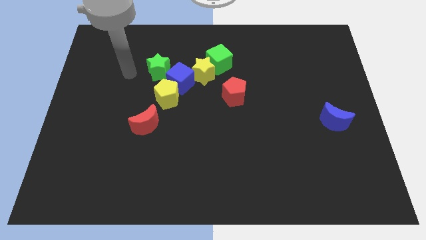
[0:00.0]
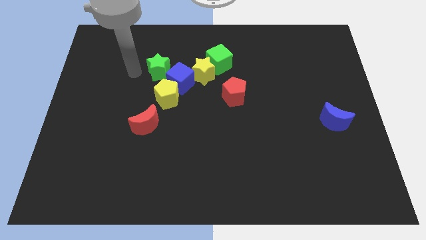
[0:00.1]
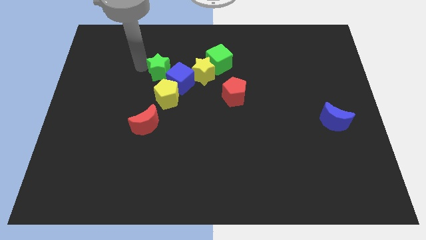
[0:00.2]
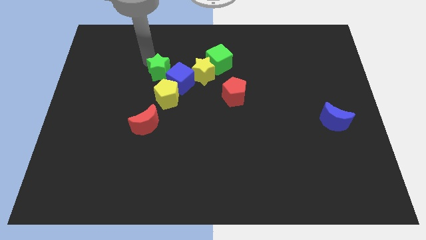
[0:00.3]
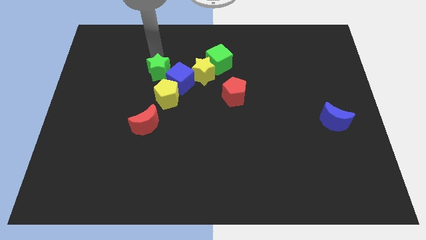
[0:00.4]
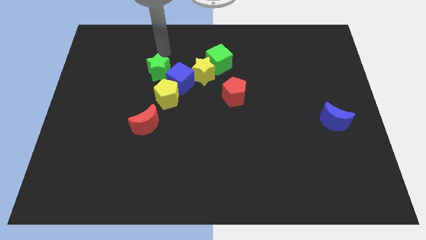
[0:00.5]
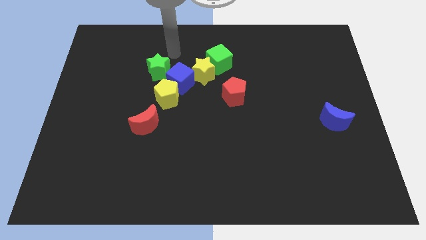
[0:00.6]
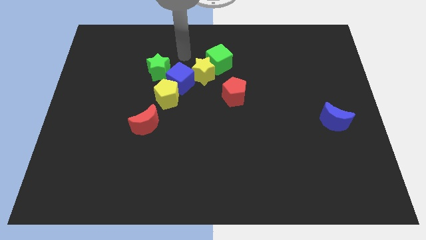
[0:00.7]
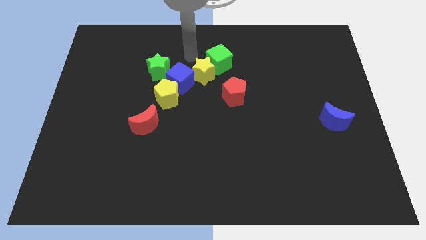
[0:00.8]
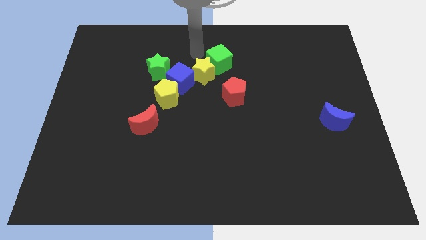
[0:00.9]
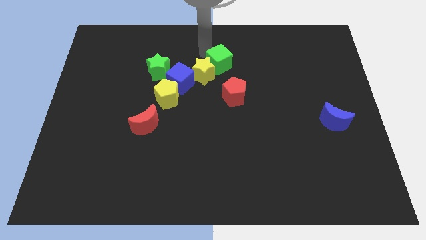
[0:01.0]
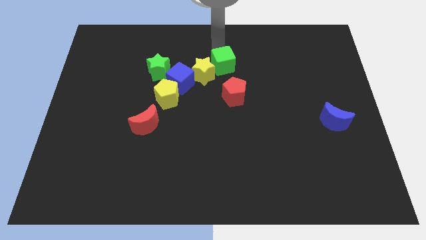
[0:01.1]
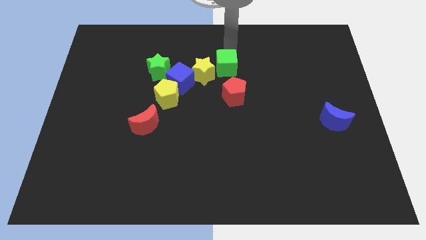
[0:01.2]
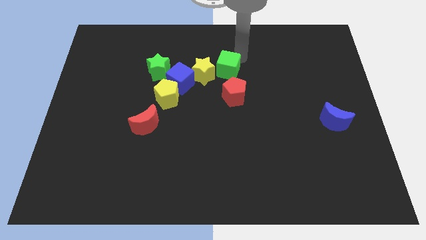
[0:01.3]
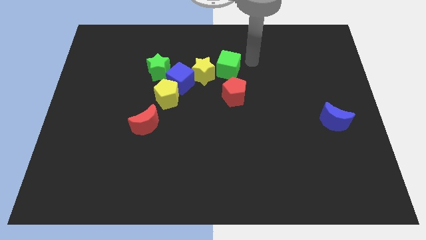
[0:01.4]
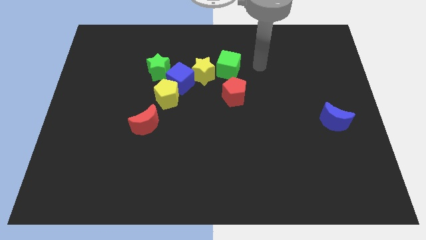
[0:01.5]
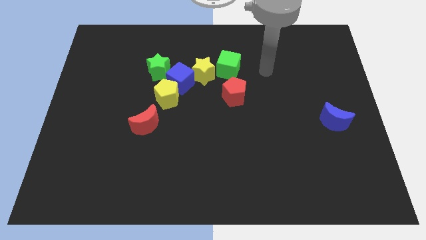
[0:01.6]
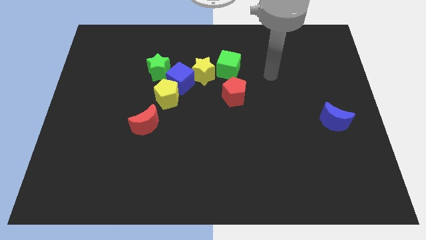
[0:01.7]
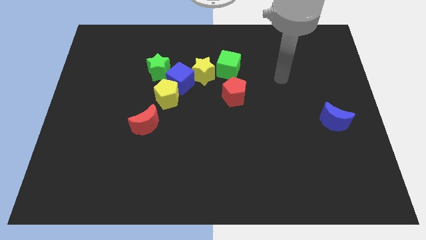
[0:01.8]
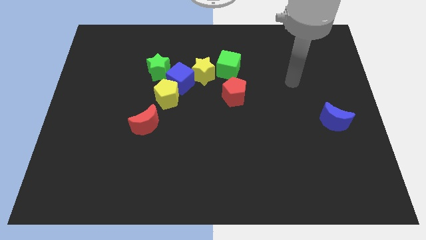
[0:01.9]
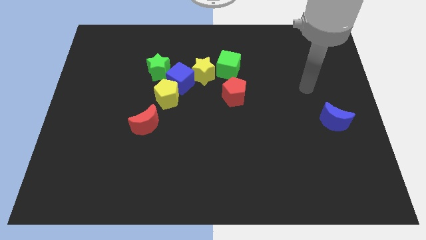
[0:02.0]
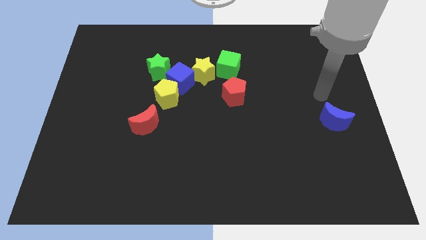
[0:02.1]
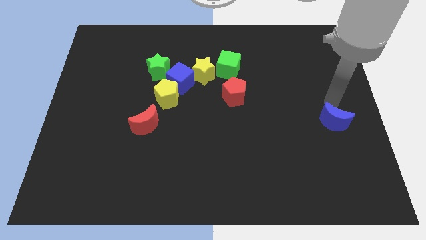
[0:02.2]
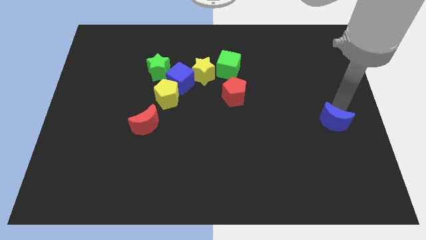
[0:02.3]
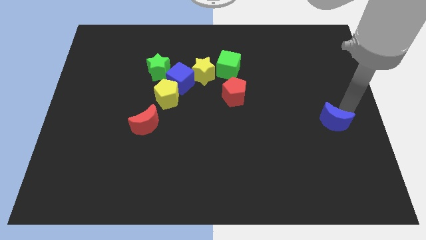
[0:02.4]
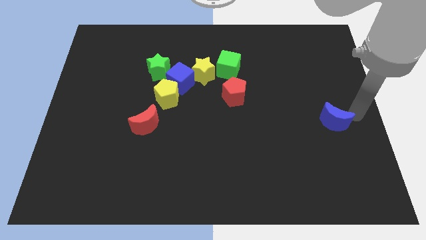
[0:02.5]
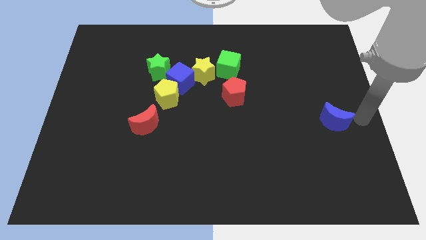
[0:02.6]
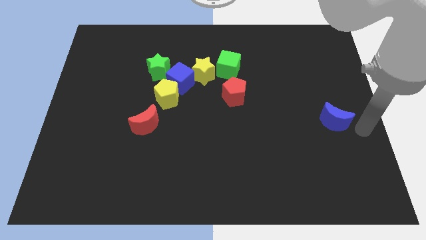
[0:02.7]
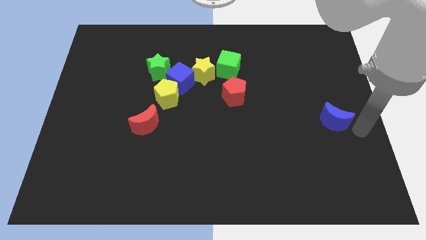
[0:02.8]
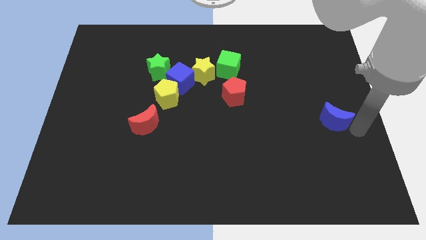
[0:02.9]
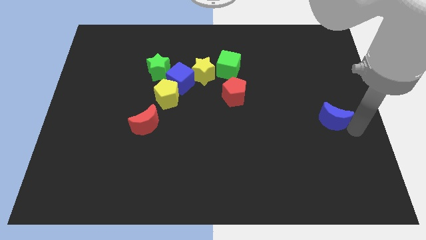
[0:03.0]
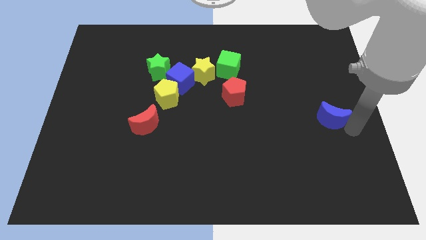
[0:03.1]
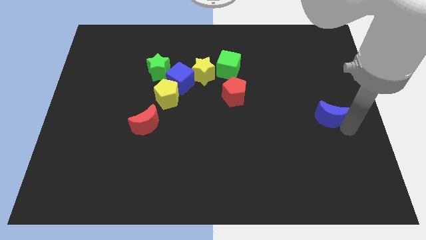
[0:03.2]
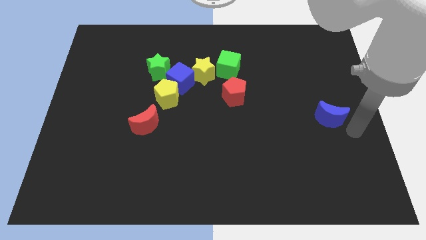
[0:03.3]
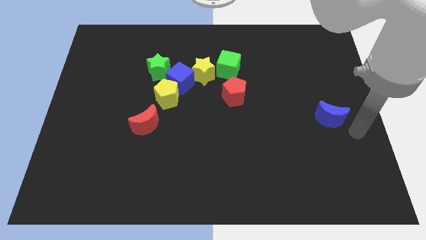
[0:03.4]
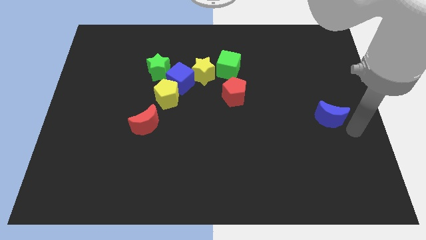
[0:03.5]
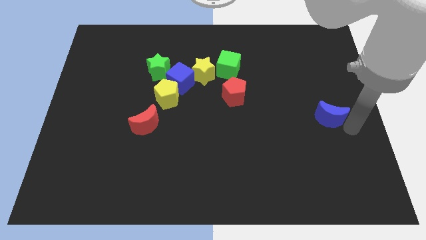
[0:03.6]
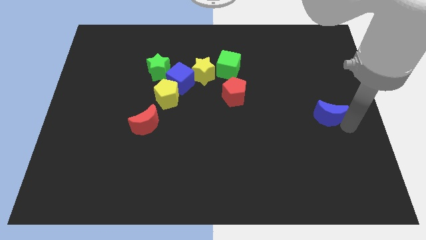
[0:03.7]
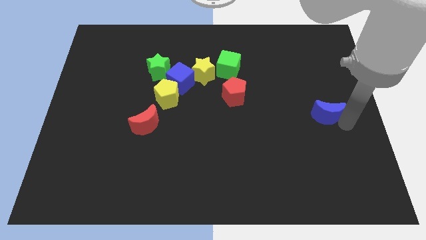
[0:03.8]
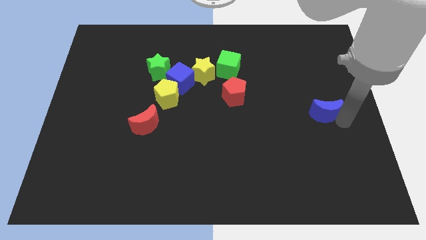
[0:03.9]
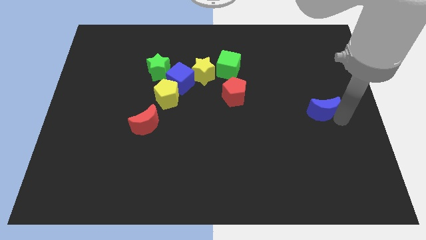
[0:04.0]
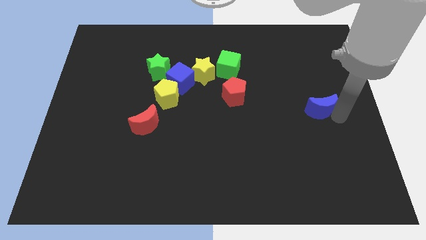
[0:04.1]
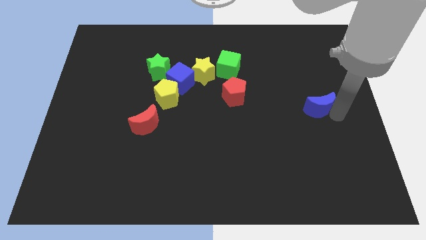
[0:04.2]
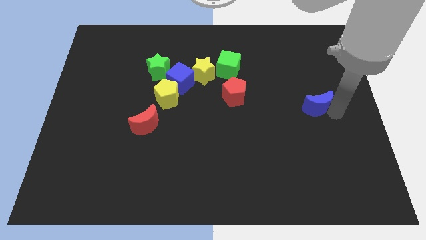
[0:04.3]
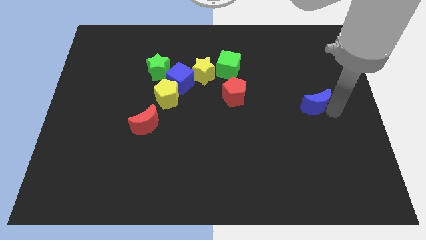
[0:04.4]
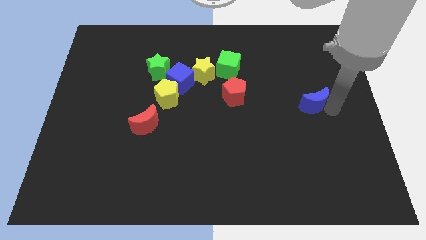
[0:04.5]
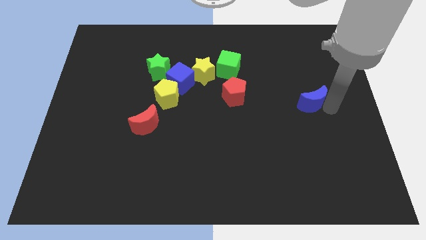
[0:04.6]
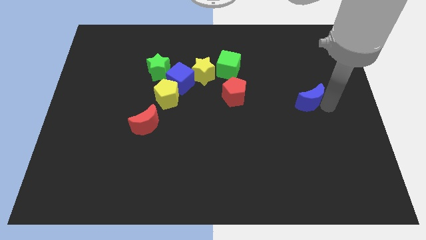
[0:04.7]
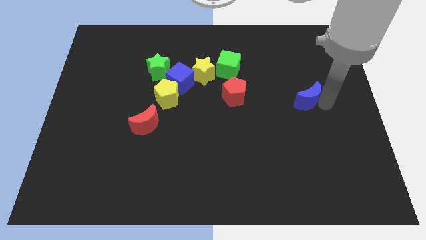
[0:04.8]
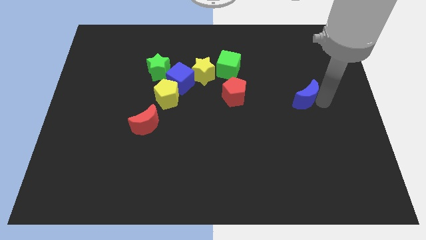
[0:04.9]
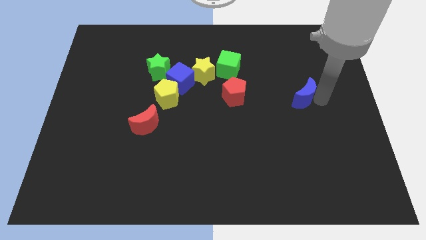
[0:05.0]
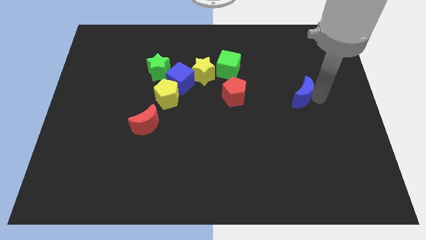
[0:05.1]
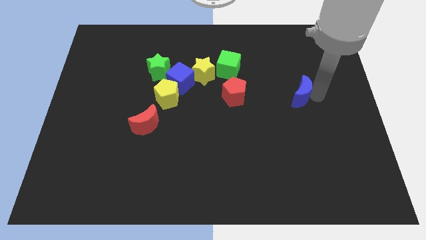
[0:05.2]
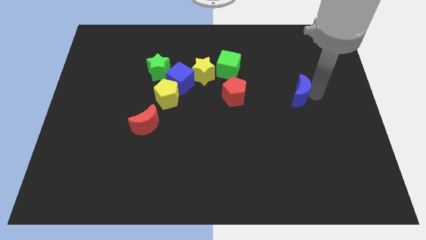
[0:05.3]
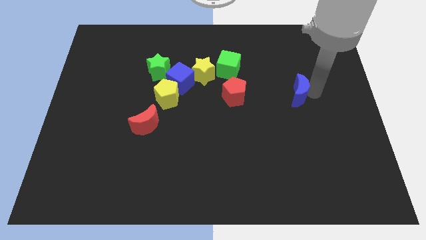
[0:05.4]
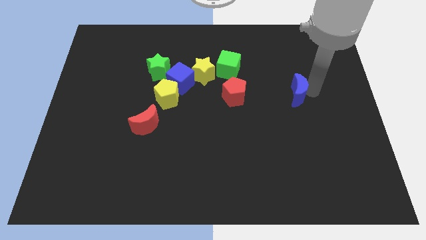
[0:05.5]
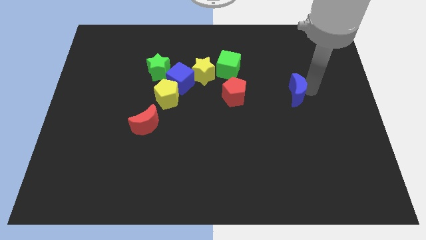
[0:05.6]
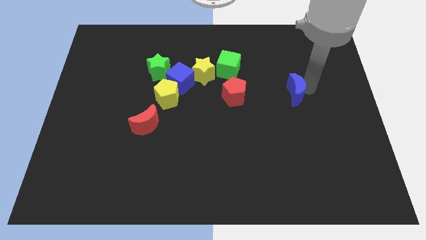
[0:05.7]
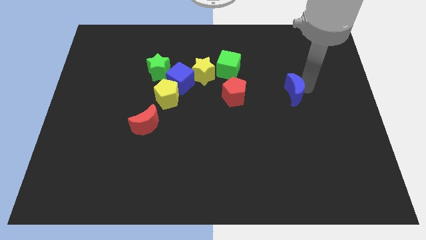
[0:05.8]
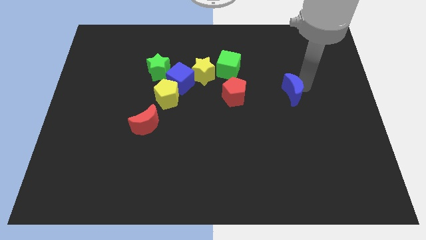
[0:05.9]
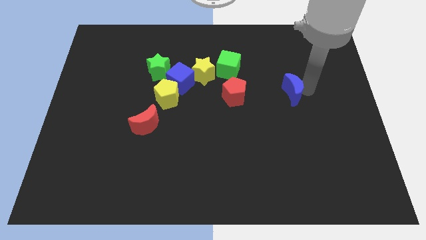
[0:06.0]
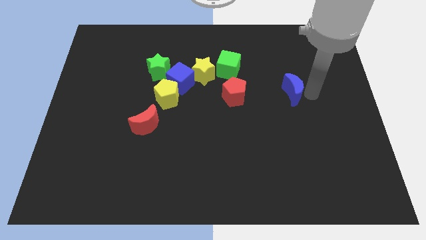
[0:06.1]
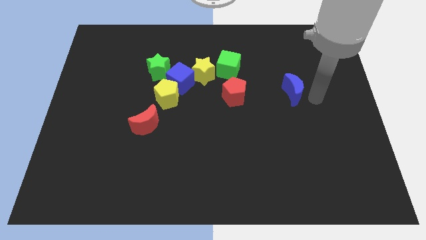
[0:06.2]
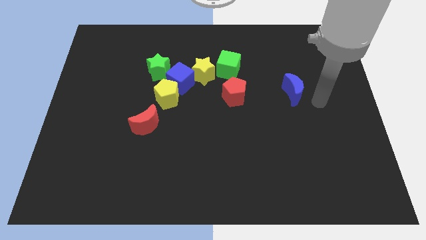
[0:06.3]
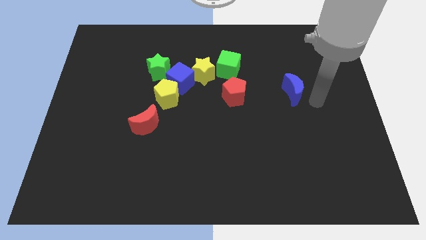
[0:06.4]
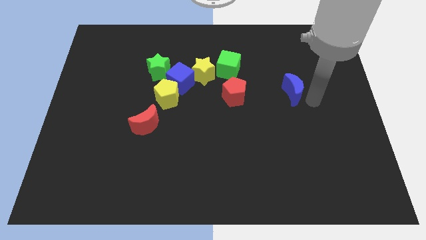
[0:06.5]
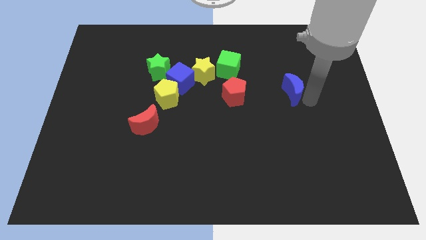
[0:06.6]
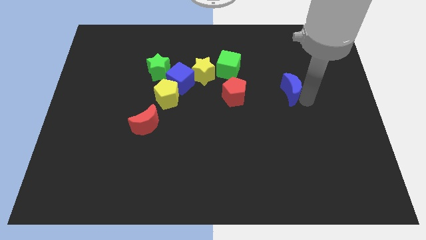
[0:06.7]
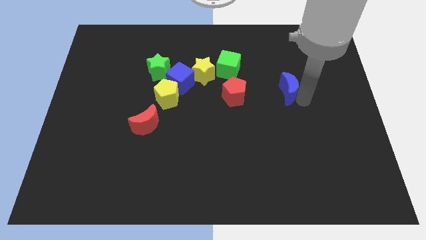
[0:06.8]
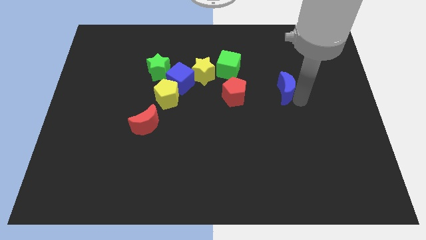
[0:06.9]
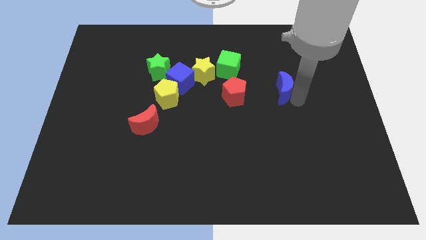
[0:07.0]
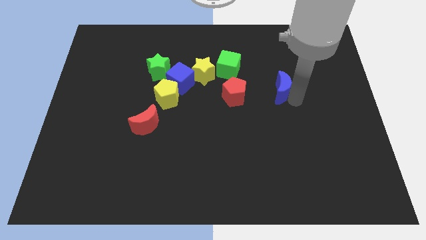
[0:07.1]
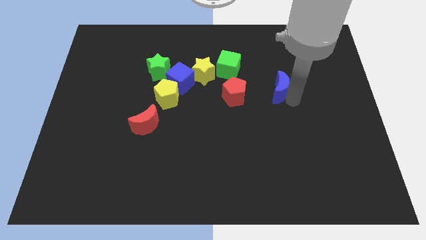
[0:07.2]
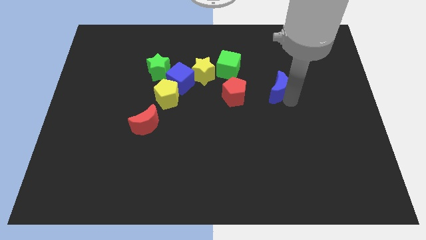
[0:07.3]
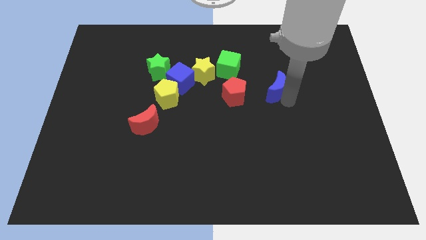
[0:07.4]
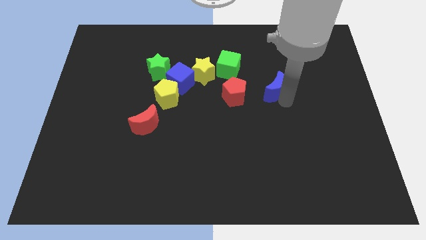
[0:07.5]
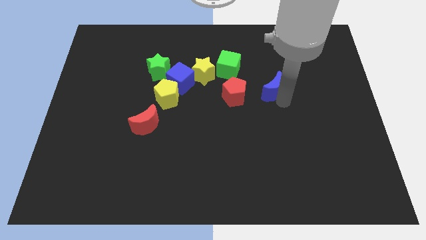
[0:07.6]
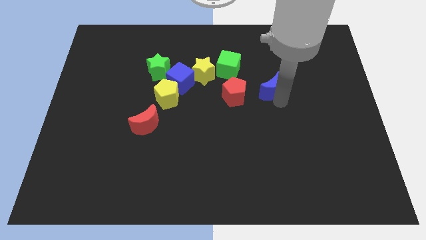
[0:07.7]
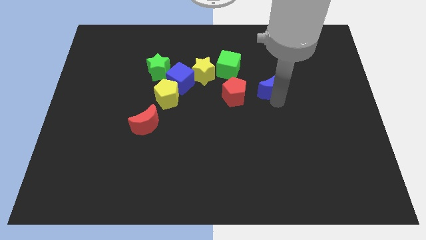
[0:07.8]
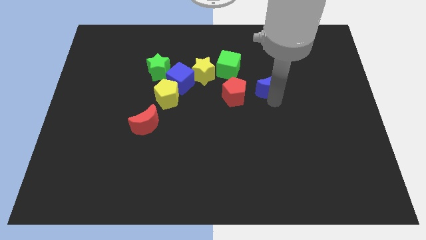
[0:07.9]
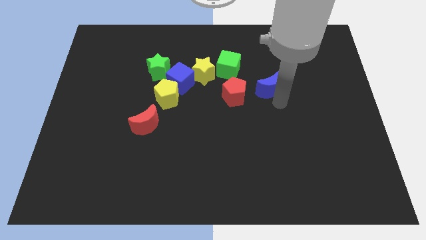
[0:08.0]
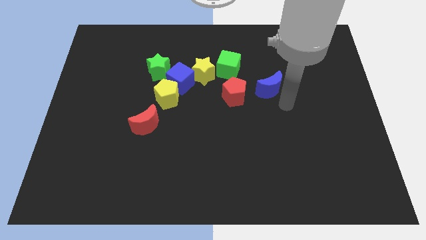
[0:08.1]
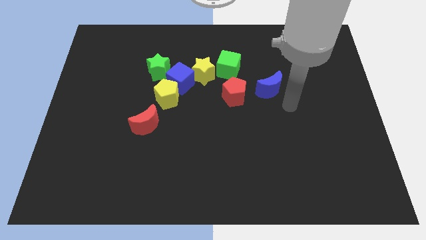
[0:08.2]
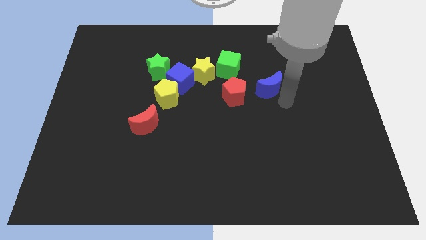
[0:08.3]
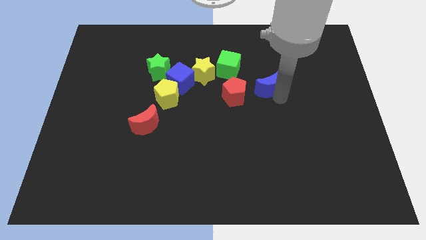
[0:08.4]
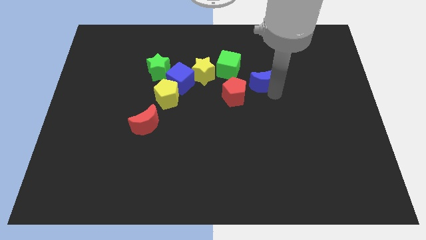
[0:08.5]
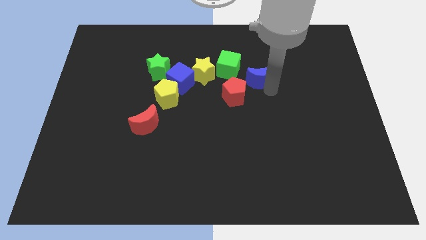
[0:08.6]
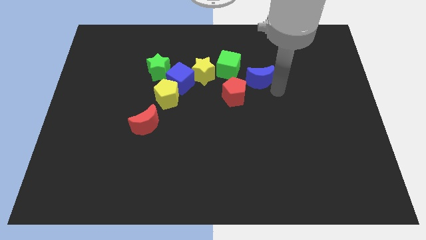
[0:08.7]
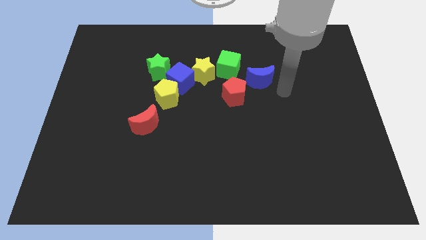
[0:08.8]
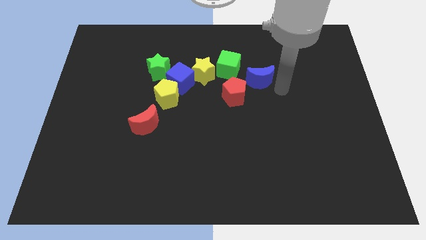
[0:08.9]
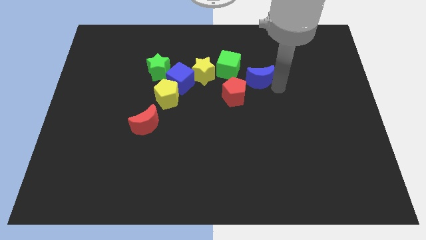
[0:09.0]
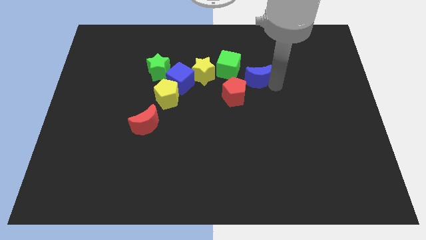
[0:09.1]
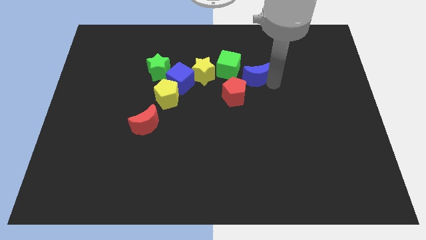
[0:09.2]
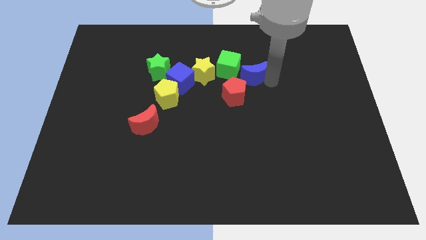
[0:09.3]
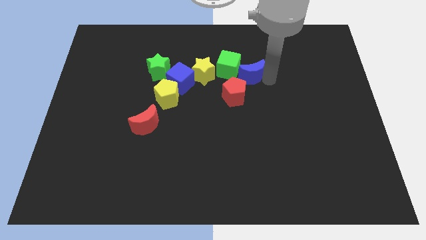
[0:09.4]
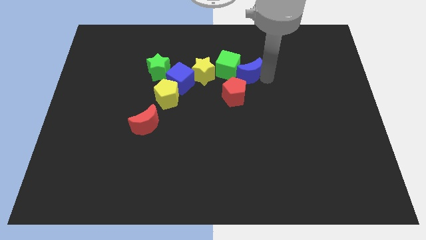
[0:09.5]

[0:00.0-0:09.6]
move the blue moon to the green cube
